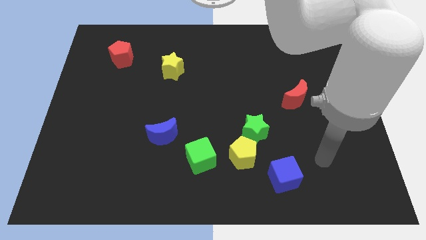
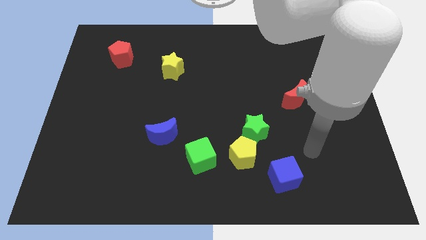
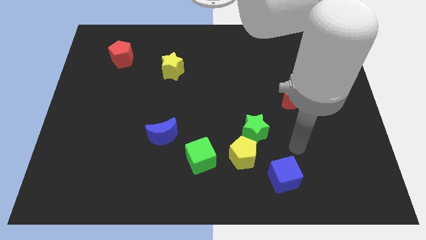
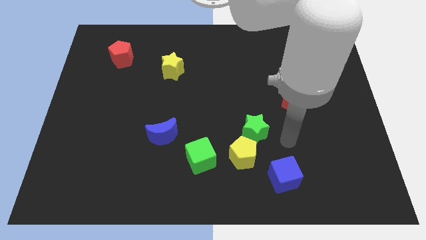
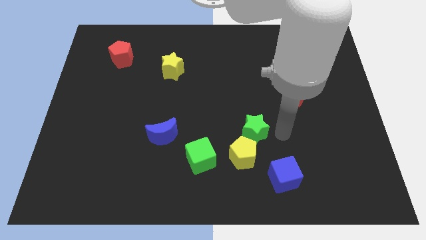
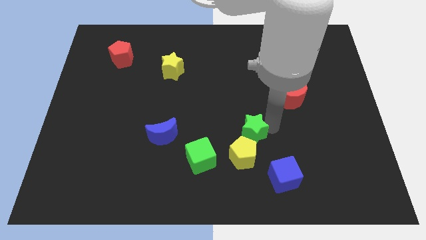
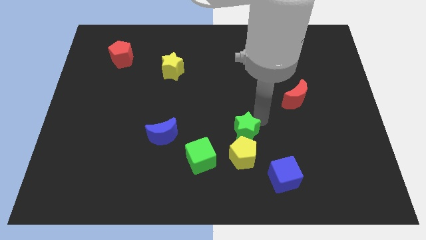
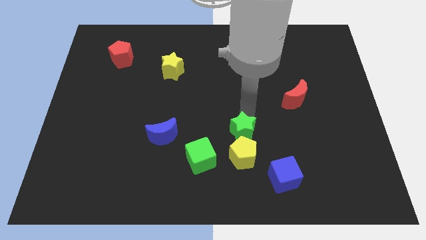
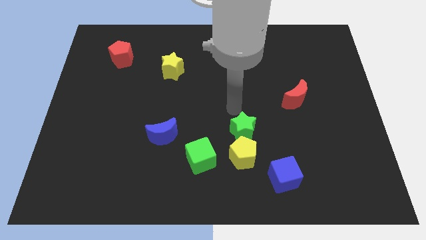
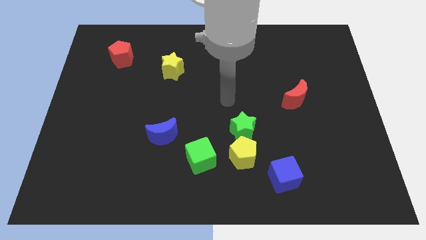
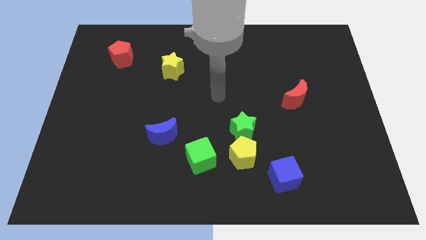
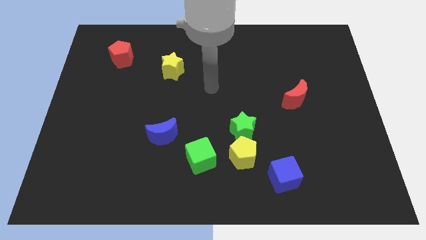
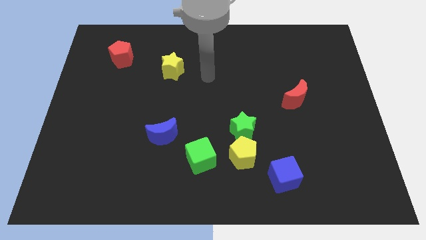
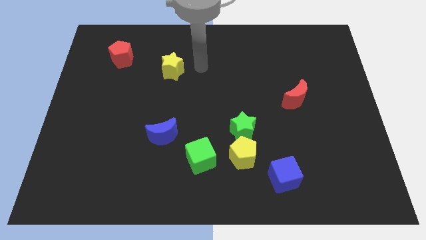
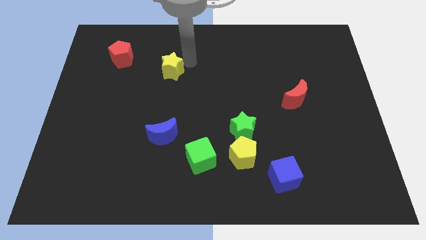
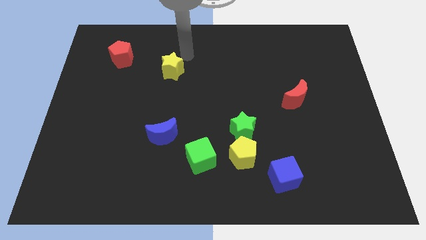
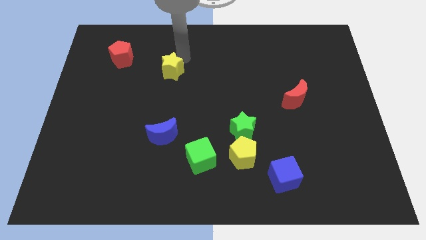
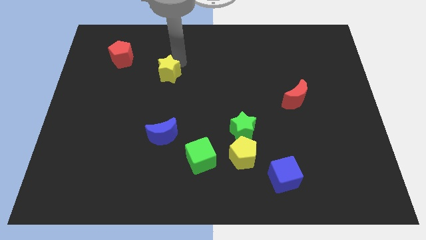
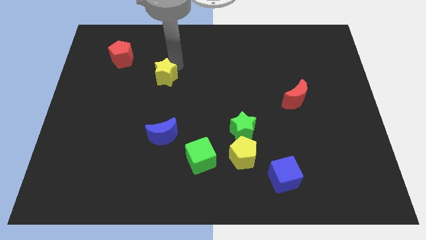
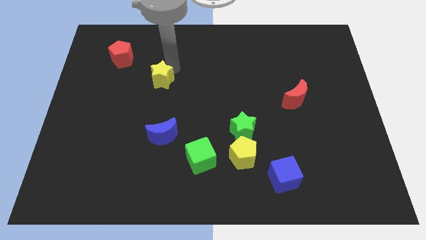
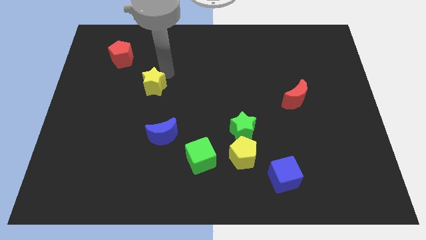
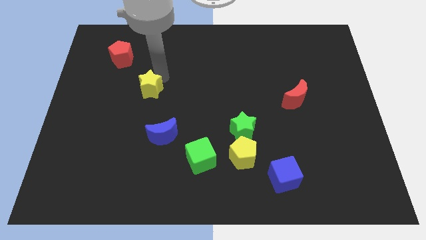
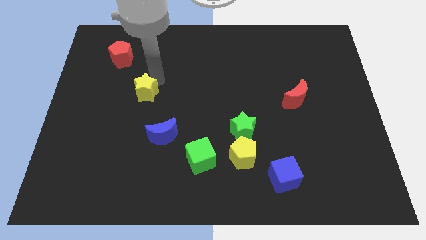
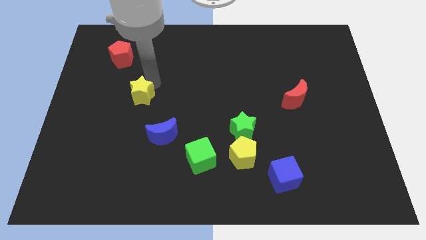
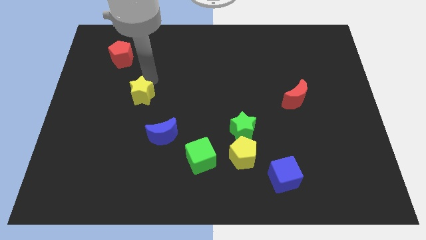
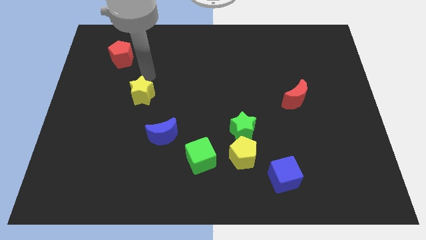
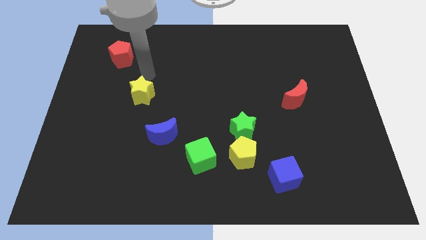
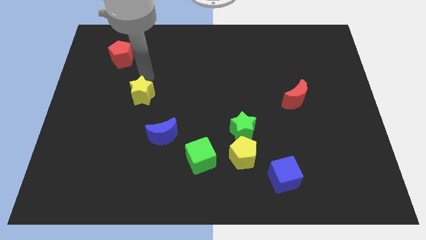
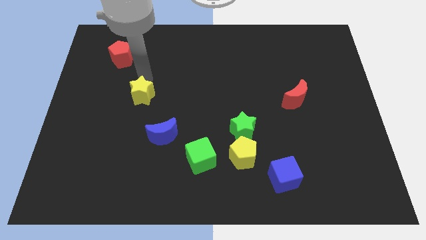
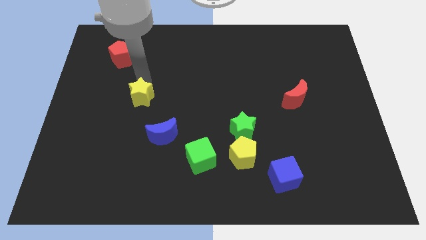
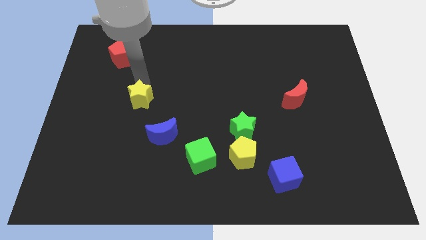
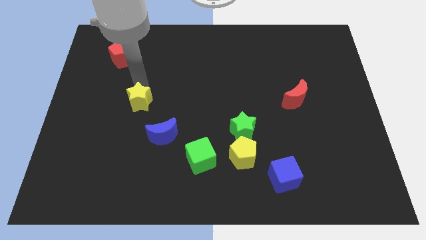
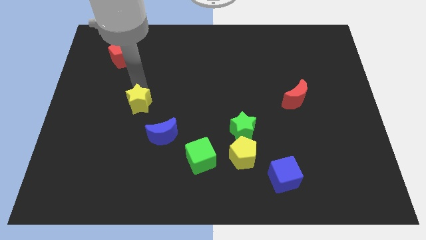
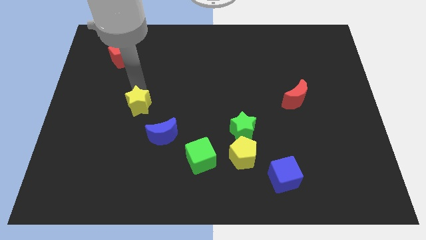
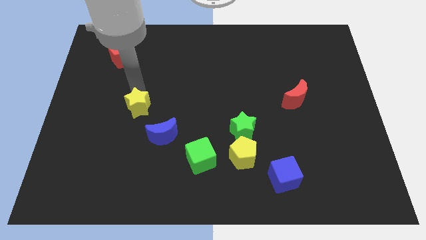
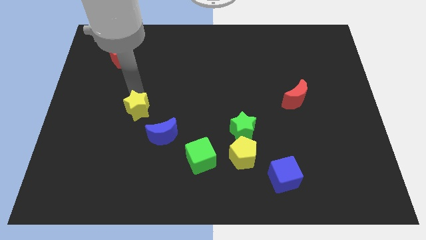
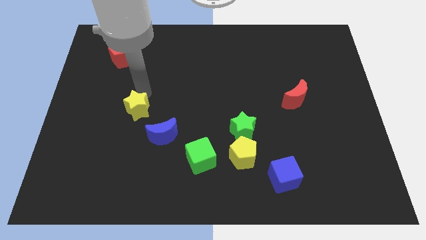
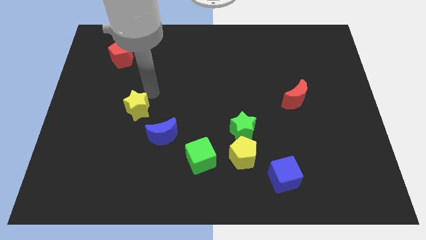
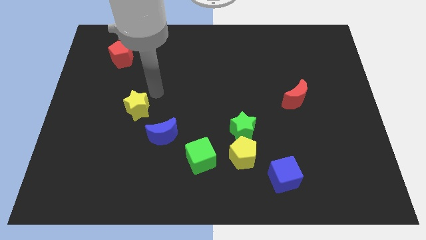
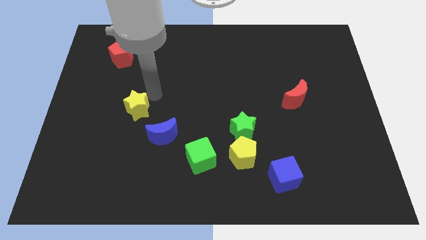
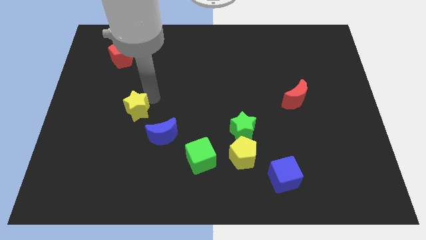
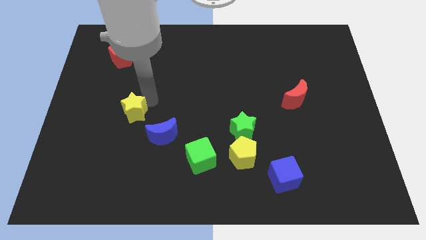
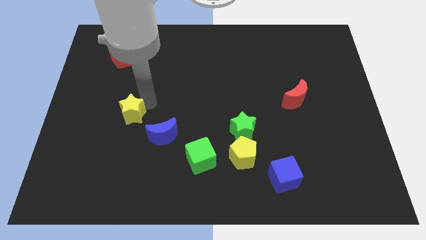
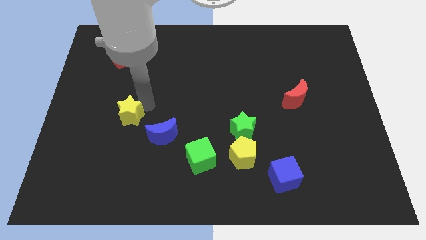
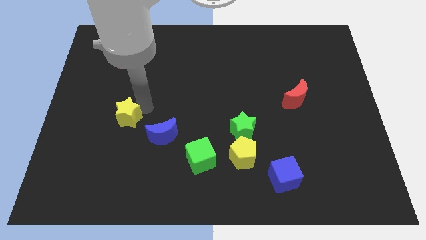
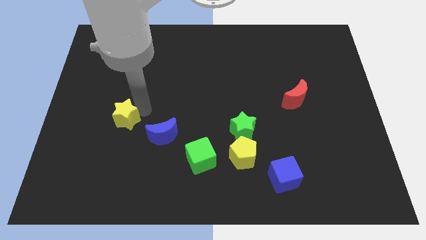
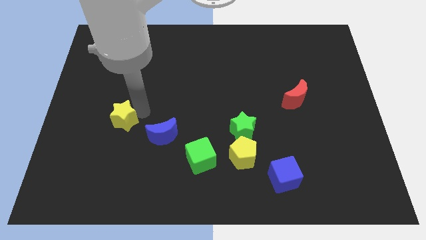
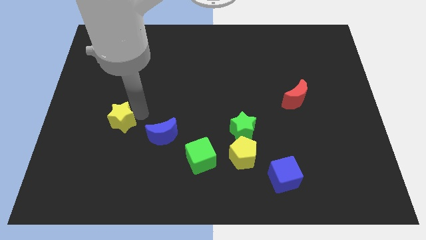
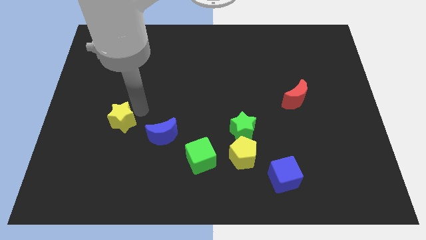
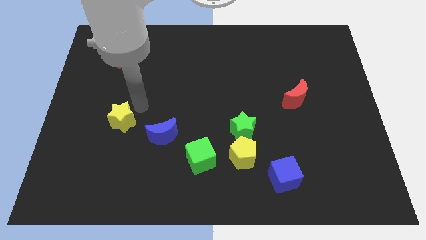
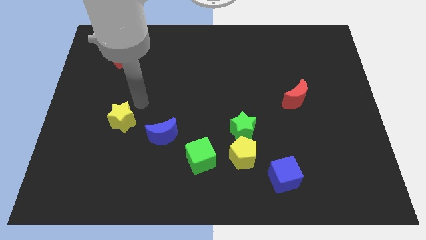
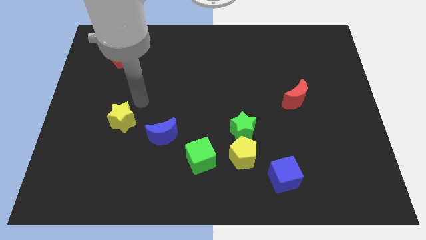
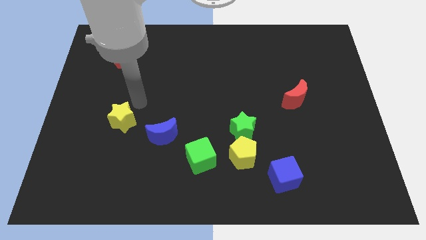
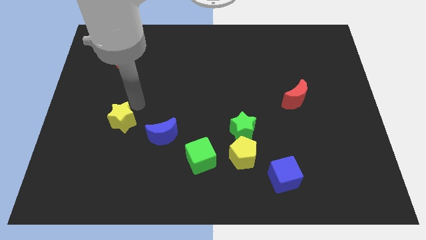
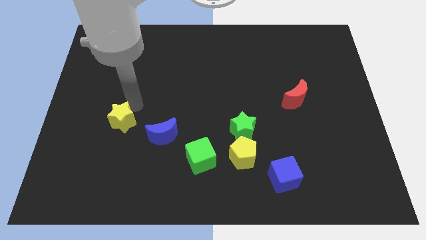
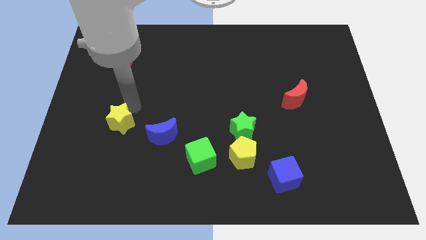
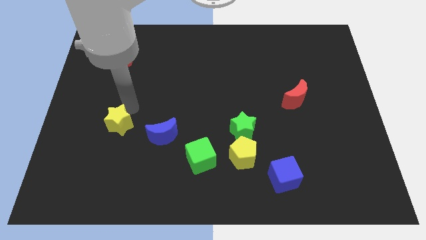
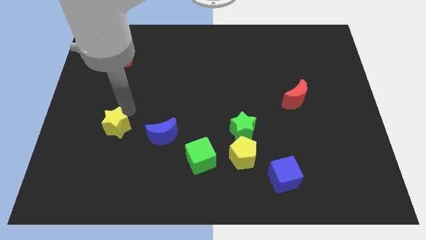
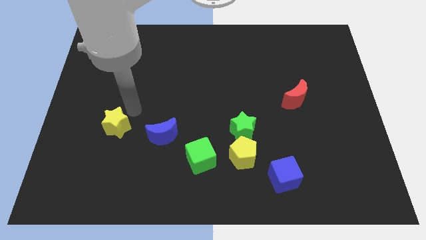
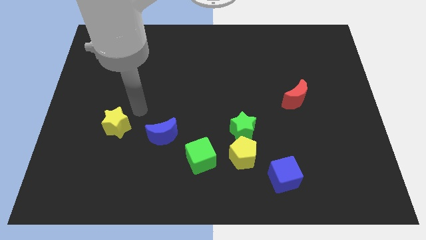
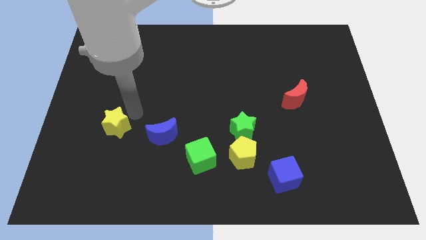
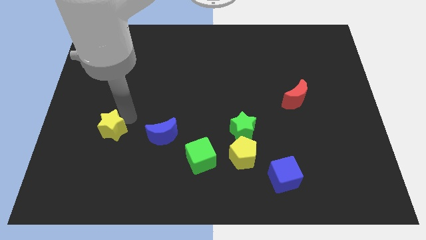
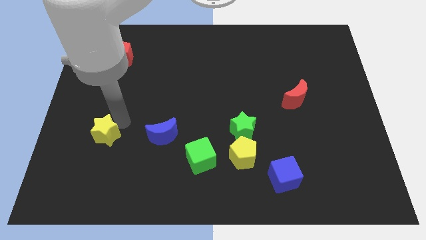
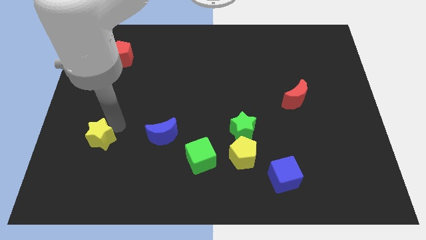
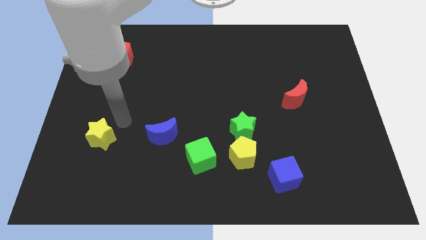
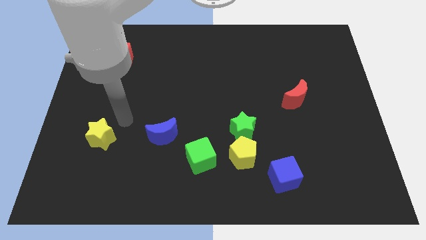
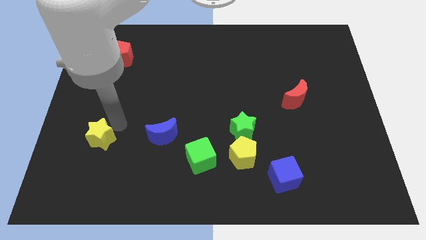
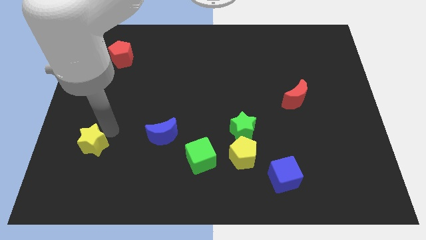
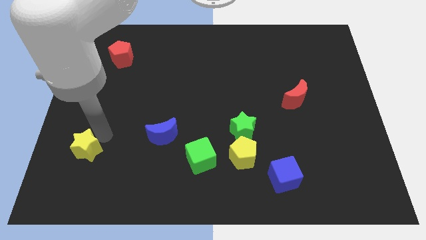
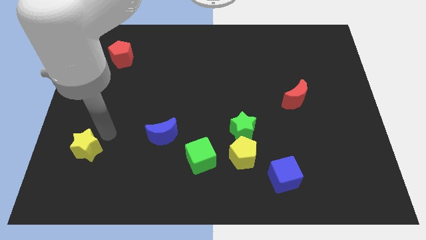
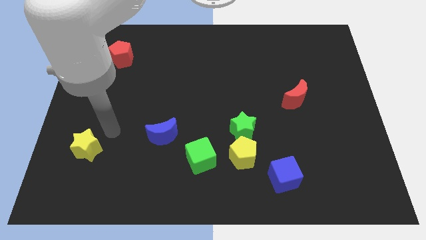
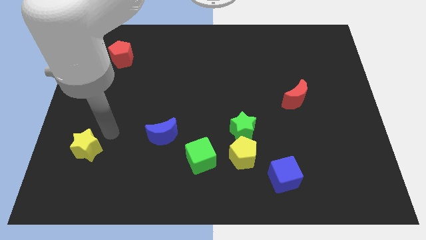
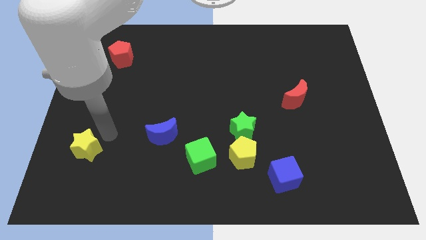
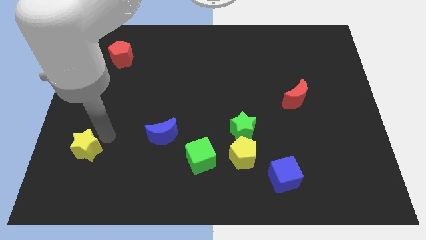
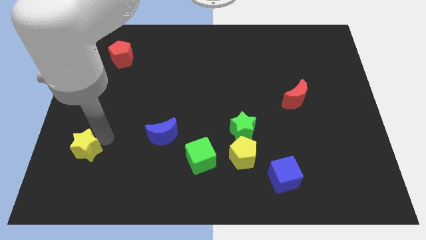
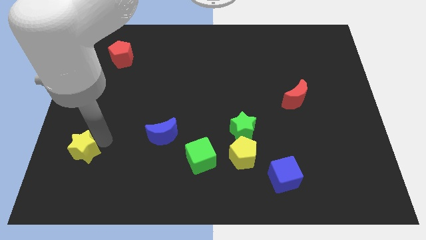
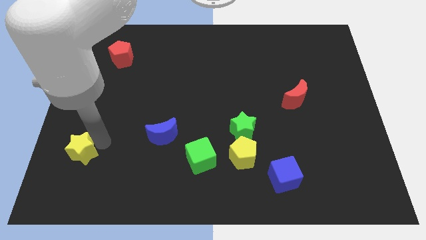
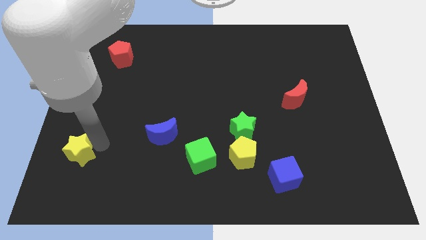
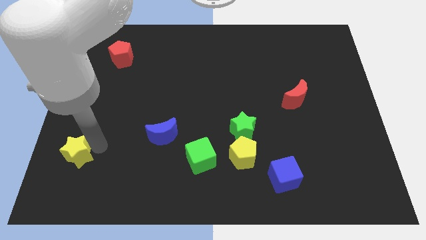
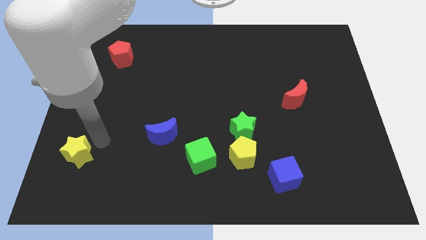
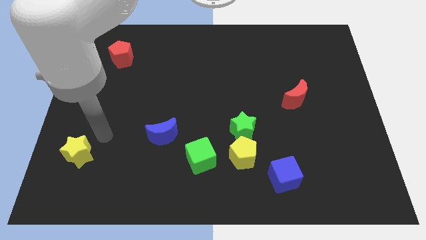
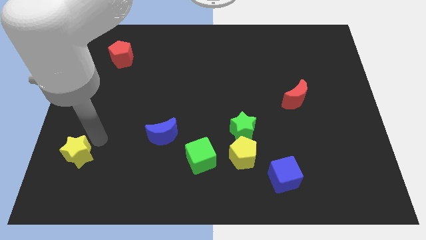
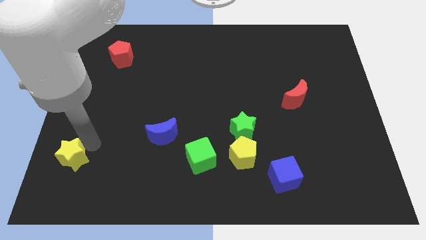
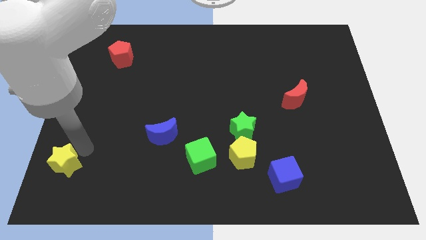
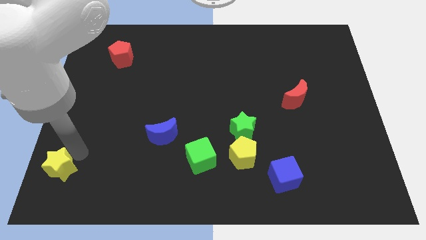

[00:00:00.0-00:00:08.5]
push the yellow star to the lower left corner
